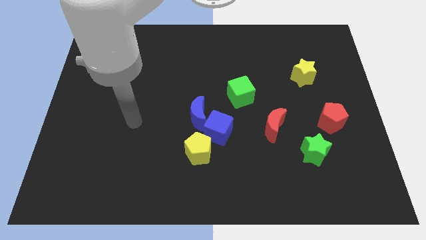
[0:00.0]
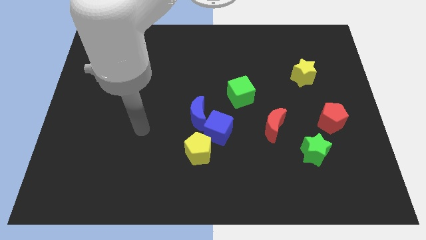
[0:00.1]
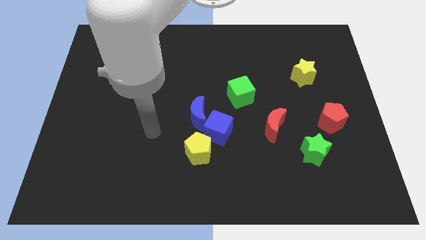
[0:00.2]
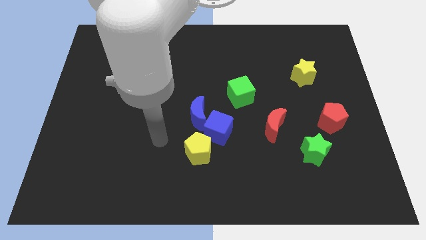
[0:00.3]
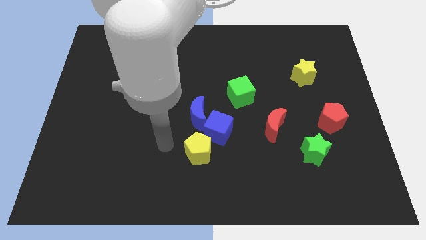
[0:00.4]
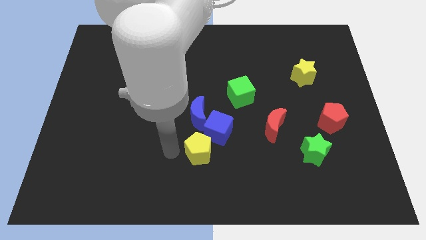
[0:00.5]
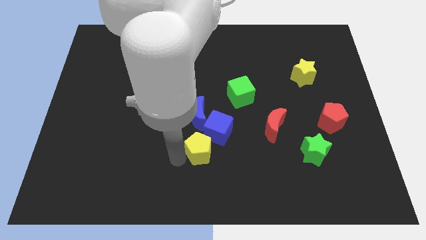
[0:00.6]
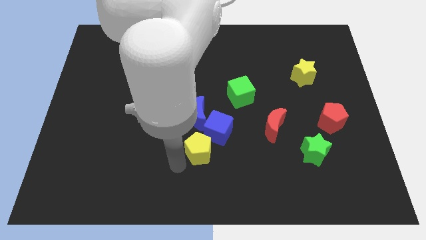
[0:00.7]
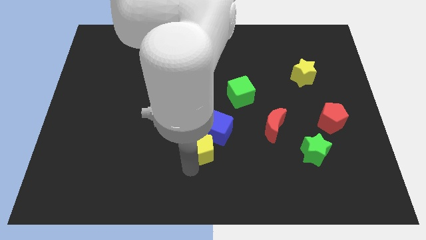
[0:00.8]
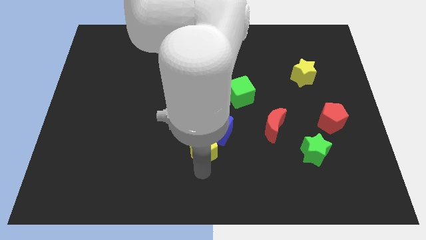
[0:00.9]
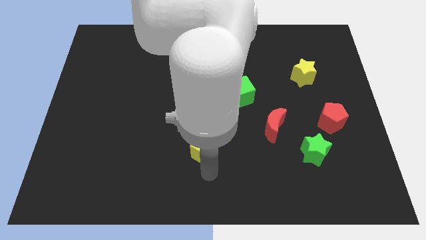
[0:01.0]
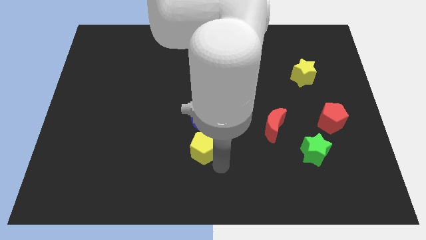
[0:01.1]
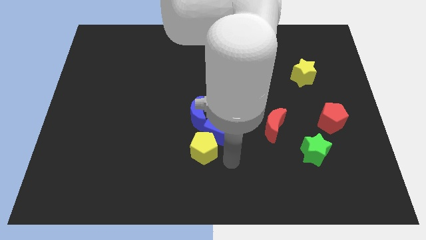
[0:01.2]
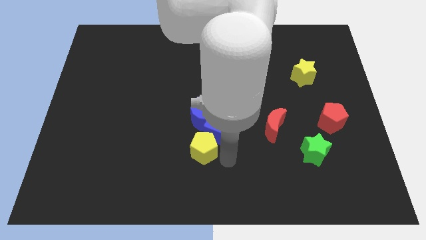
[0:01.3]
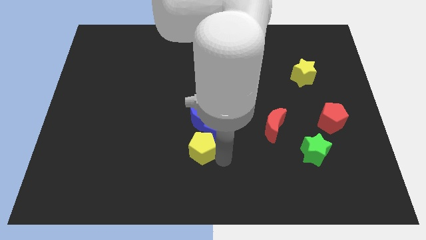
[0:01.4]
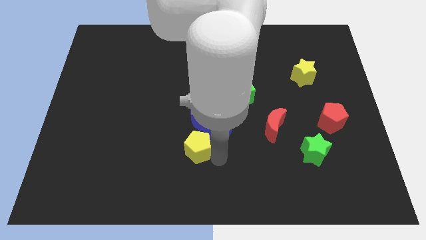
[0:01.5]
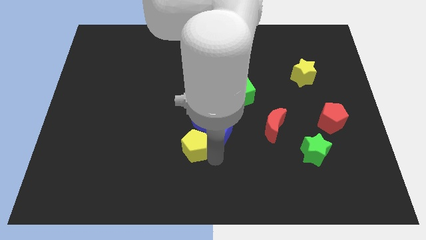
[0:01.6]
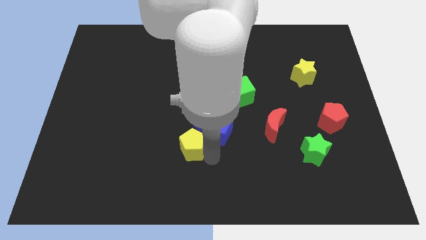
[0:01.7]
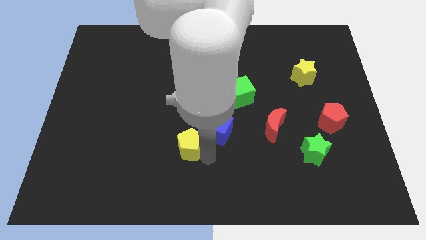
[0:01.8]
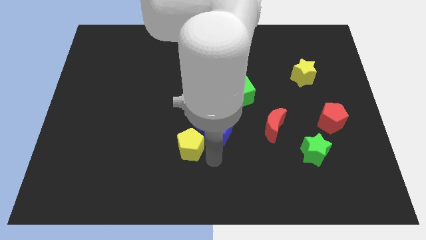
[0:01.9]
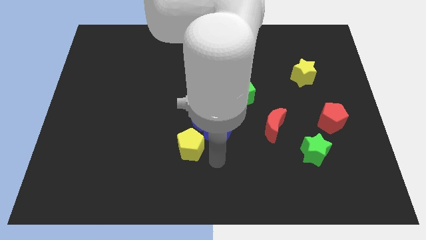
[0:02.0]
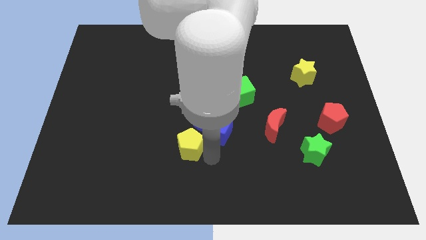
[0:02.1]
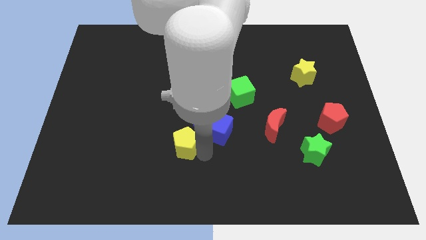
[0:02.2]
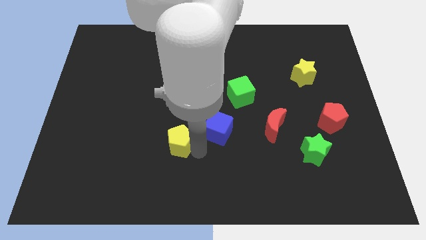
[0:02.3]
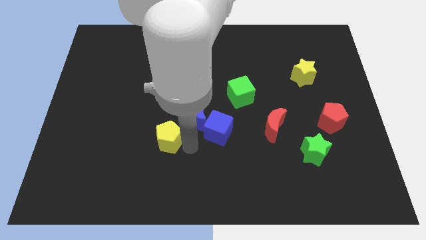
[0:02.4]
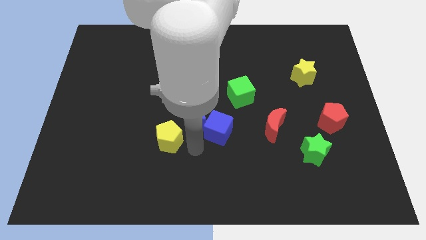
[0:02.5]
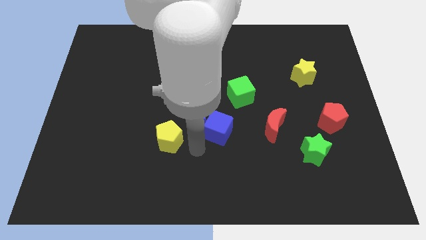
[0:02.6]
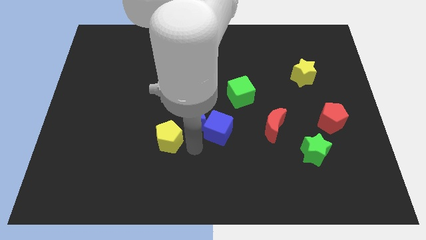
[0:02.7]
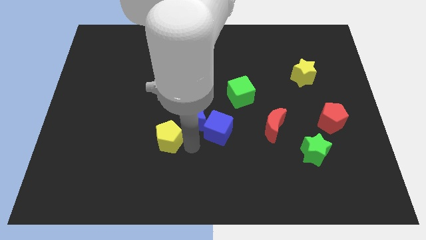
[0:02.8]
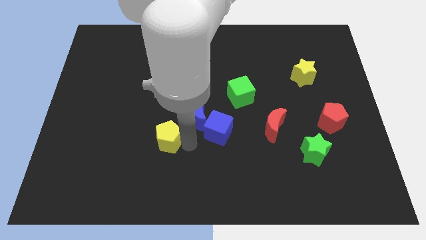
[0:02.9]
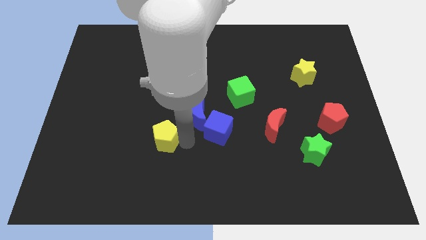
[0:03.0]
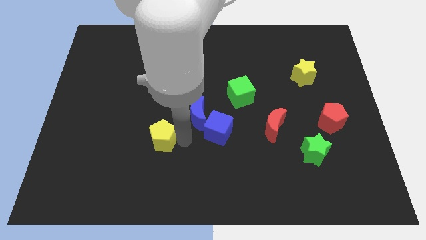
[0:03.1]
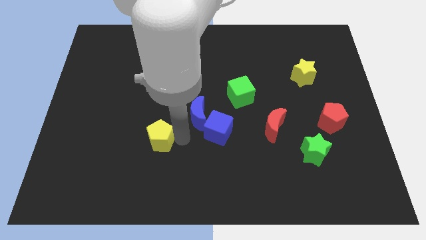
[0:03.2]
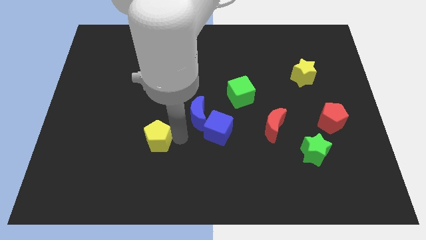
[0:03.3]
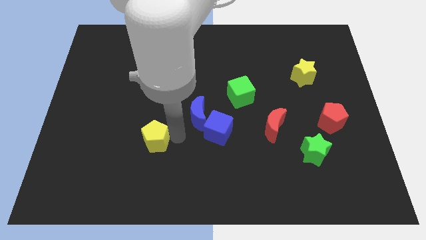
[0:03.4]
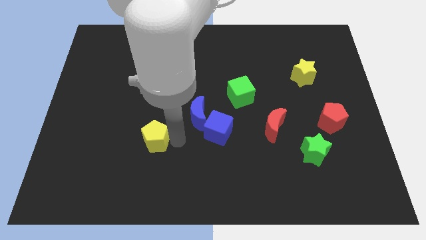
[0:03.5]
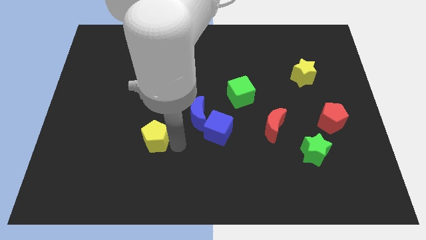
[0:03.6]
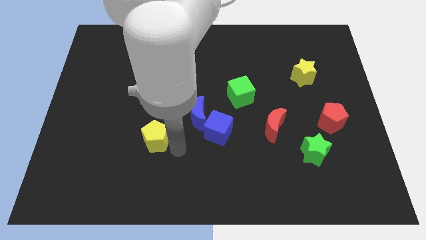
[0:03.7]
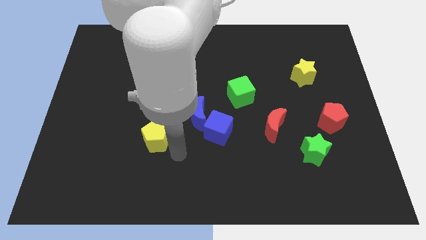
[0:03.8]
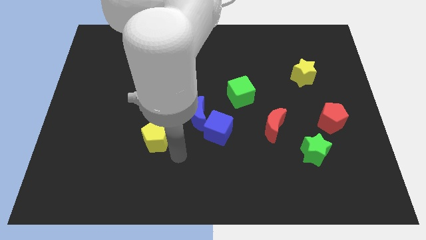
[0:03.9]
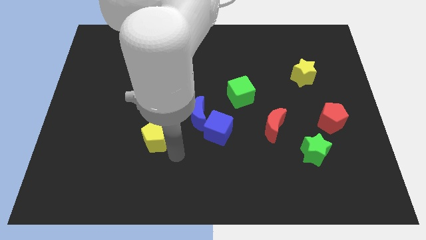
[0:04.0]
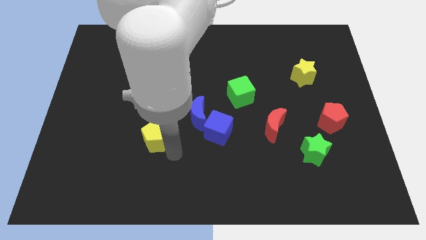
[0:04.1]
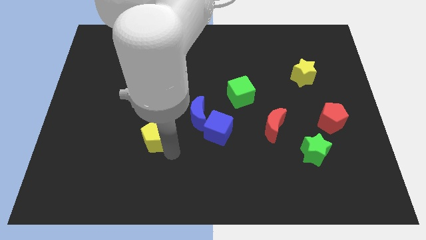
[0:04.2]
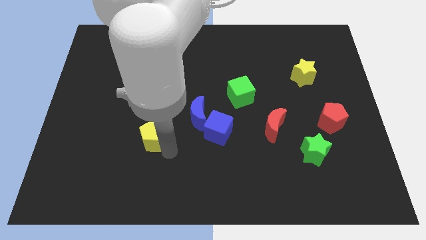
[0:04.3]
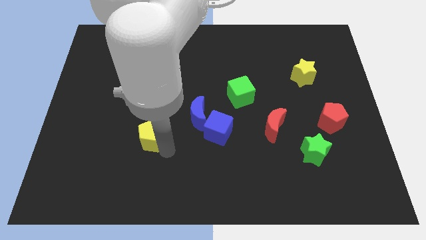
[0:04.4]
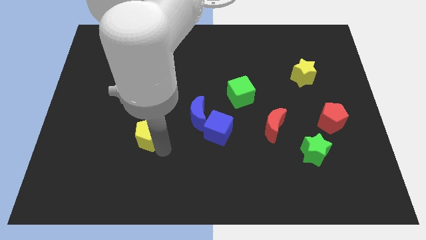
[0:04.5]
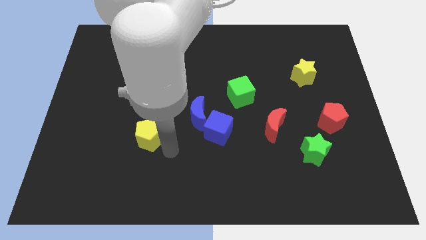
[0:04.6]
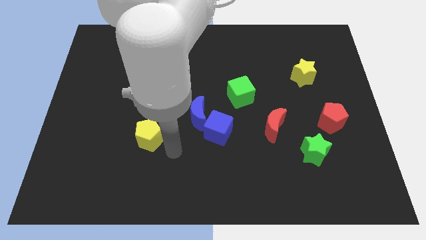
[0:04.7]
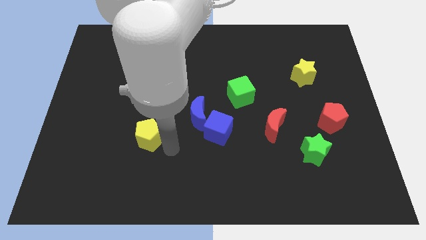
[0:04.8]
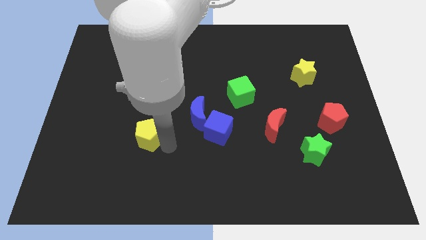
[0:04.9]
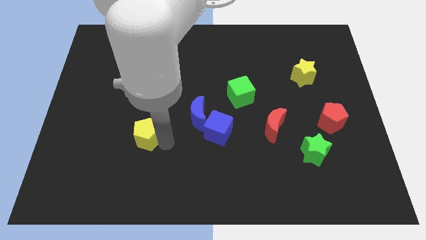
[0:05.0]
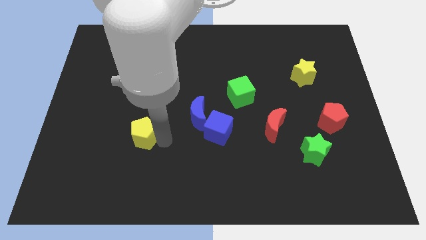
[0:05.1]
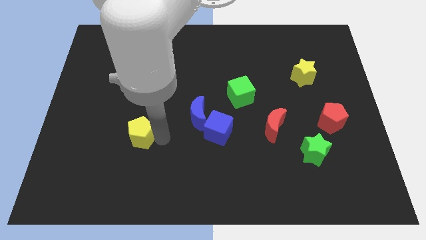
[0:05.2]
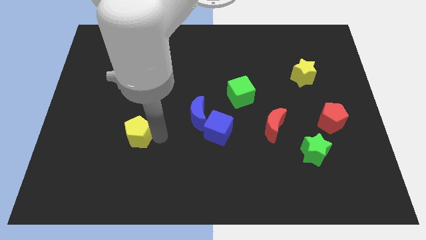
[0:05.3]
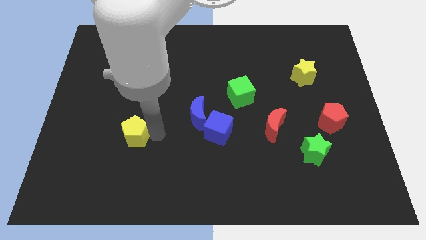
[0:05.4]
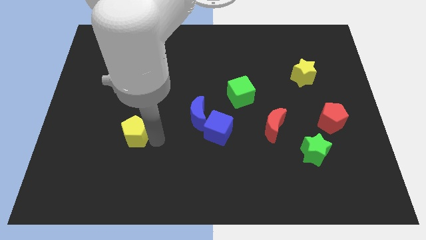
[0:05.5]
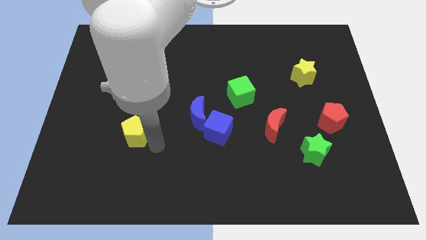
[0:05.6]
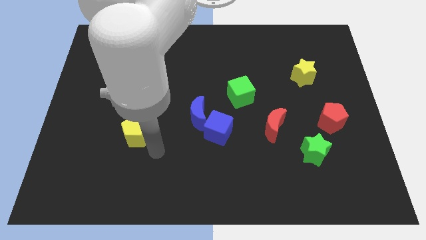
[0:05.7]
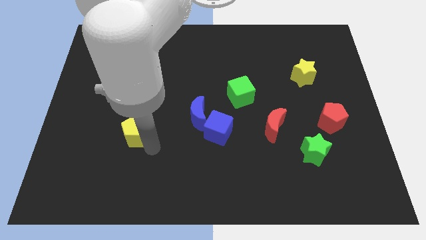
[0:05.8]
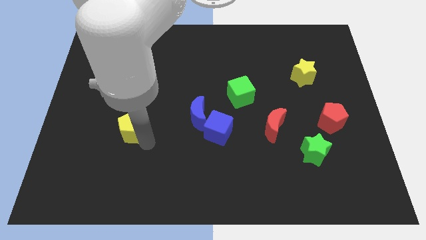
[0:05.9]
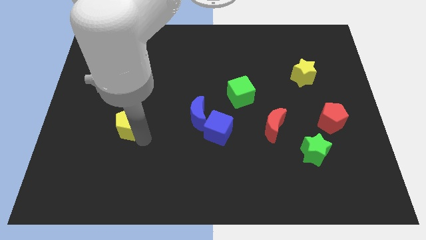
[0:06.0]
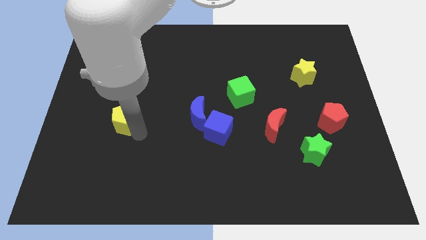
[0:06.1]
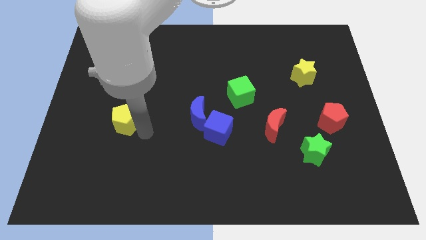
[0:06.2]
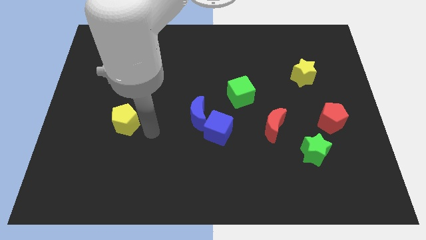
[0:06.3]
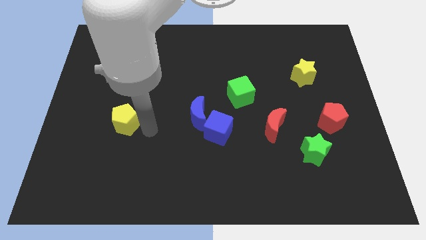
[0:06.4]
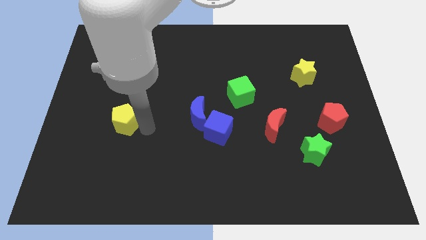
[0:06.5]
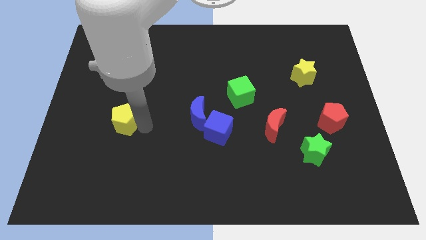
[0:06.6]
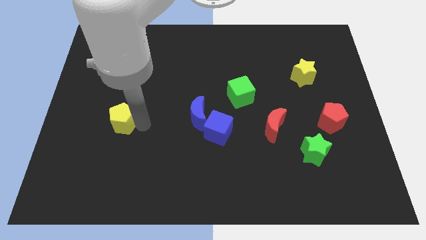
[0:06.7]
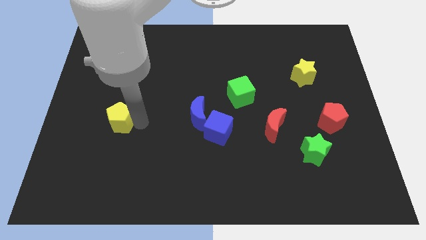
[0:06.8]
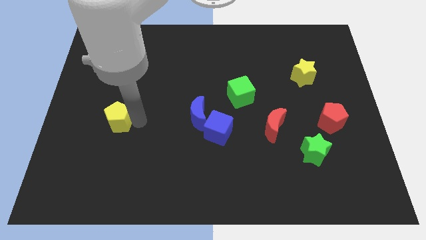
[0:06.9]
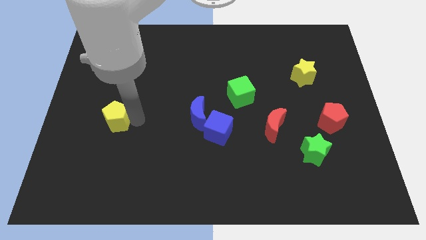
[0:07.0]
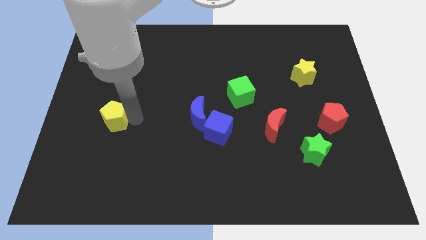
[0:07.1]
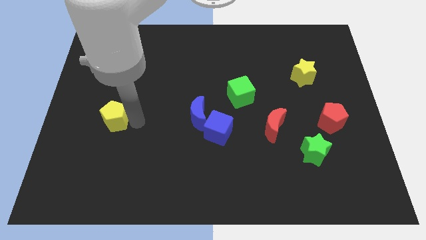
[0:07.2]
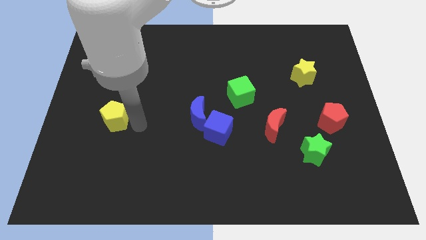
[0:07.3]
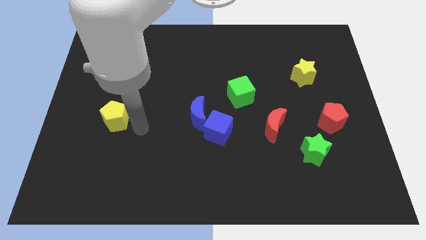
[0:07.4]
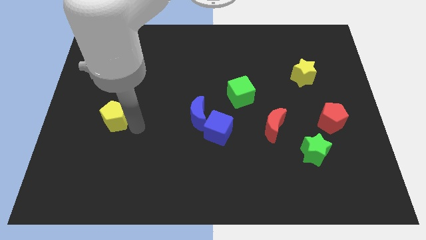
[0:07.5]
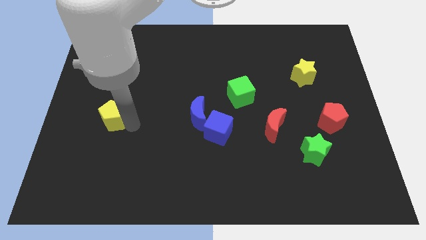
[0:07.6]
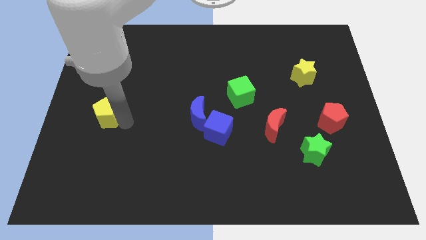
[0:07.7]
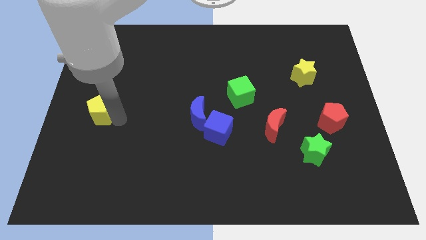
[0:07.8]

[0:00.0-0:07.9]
move the yellow pentagon to the left side
